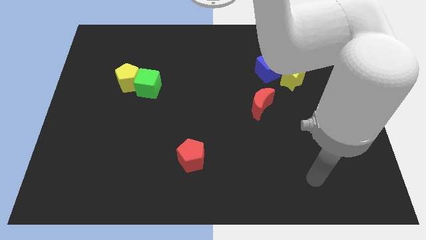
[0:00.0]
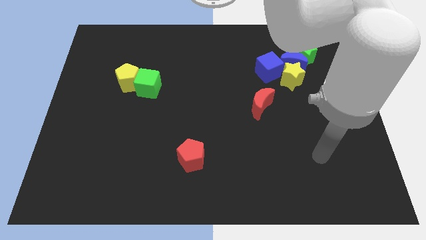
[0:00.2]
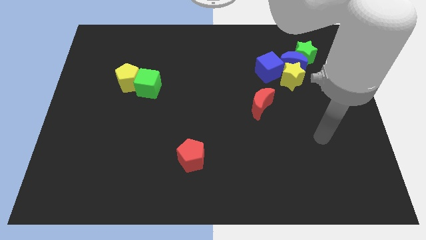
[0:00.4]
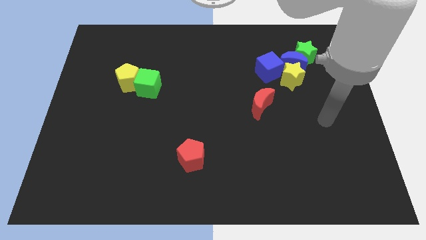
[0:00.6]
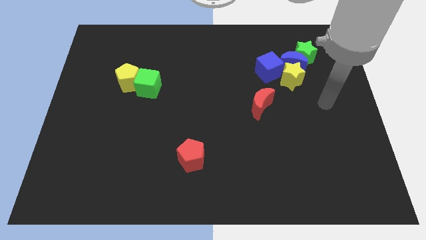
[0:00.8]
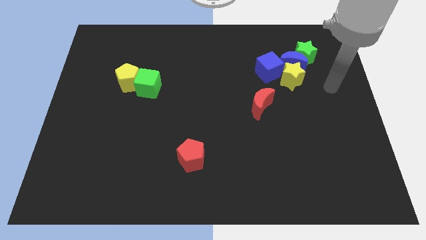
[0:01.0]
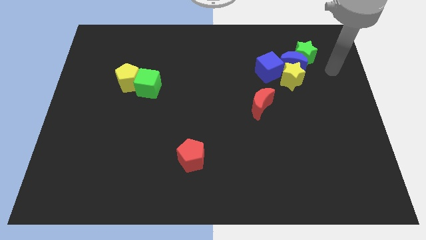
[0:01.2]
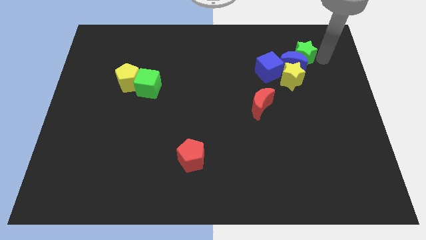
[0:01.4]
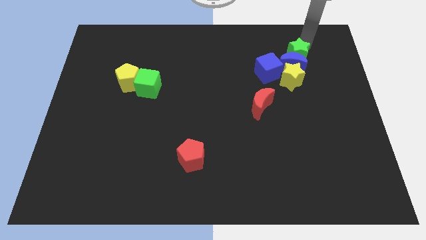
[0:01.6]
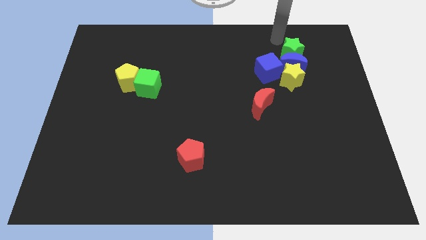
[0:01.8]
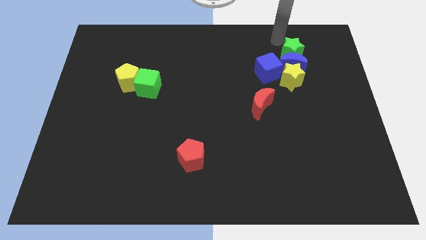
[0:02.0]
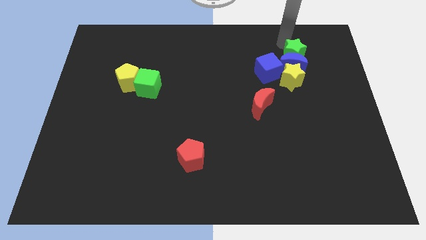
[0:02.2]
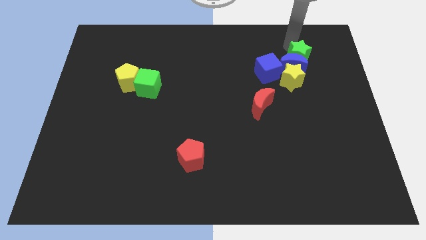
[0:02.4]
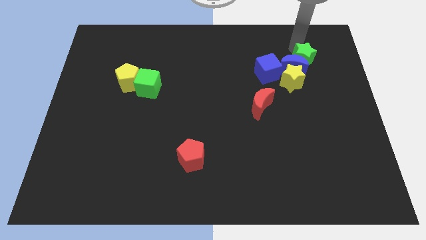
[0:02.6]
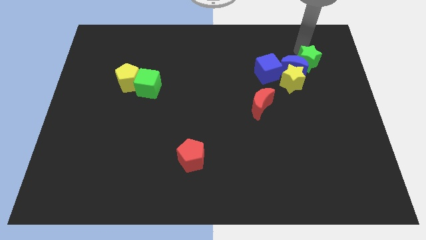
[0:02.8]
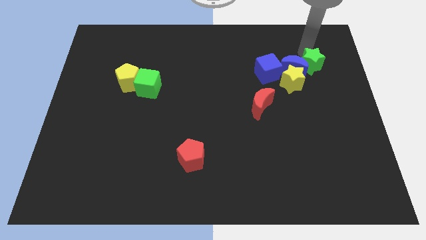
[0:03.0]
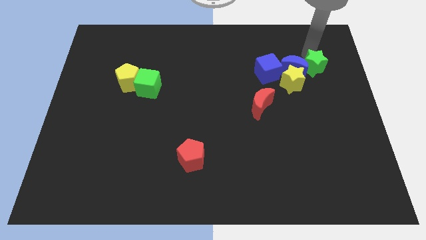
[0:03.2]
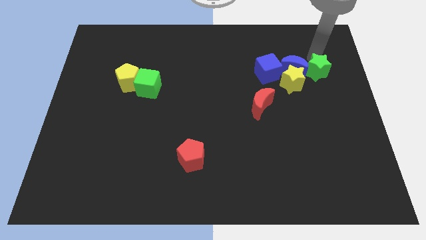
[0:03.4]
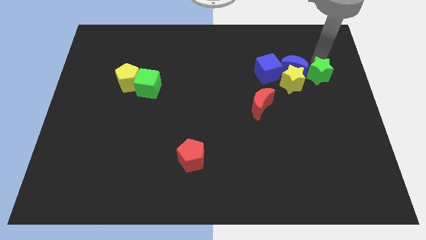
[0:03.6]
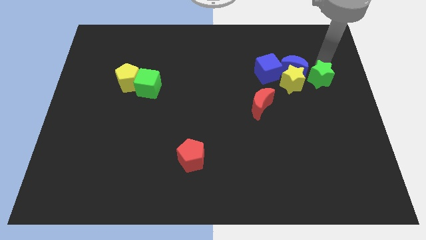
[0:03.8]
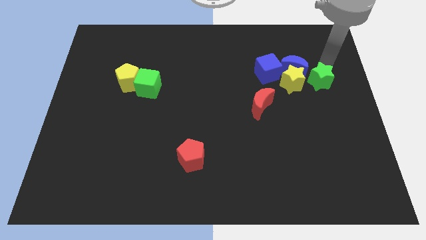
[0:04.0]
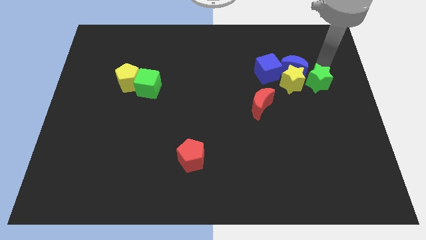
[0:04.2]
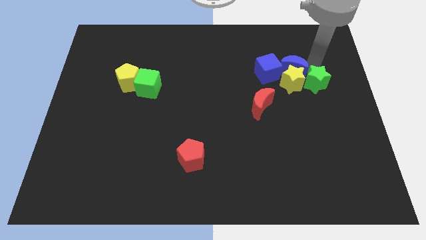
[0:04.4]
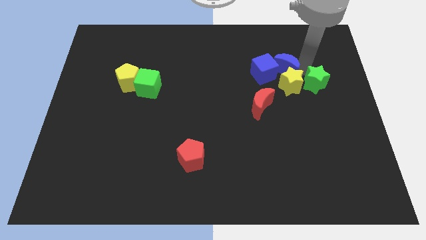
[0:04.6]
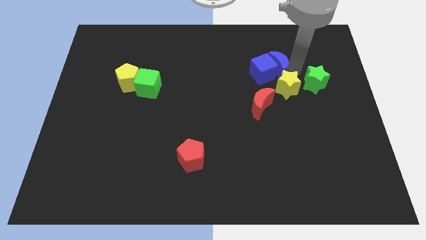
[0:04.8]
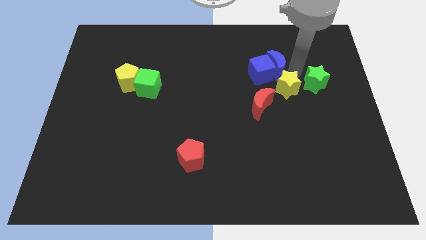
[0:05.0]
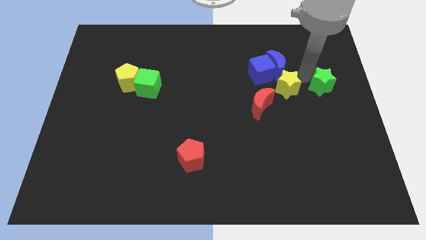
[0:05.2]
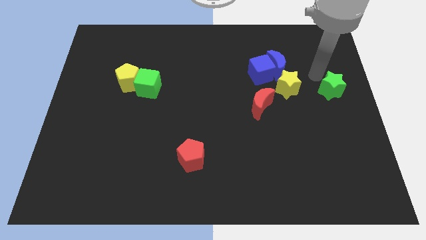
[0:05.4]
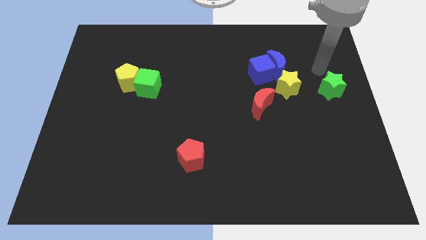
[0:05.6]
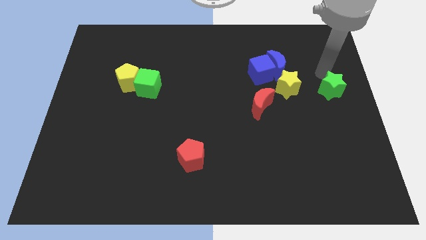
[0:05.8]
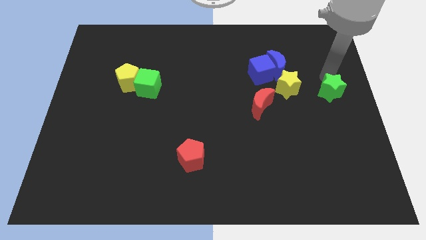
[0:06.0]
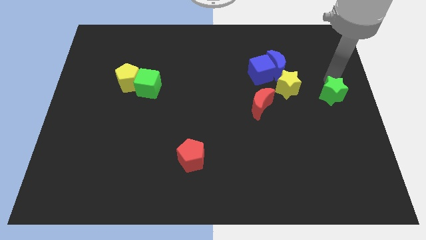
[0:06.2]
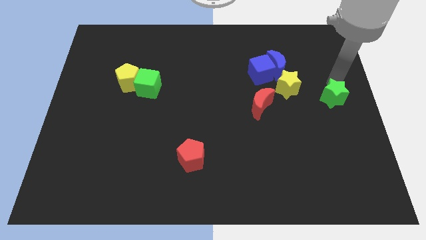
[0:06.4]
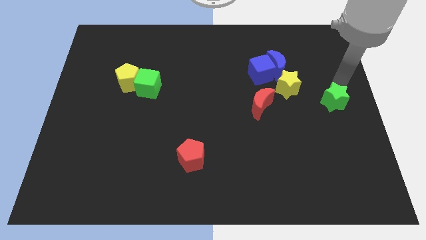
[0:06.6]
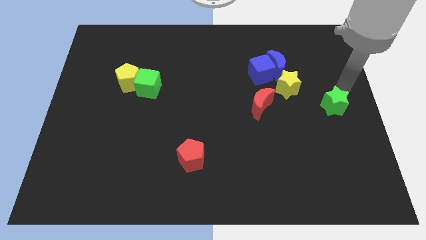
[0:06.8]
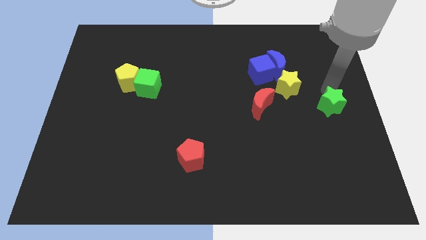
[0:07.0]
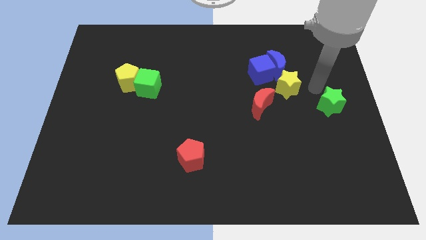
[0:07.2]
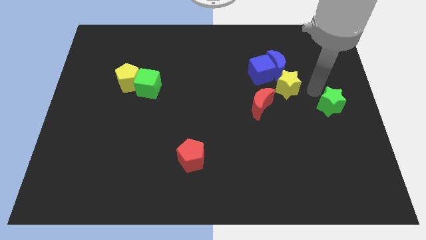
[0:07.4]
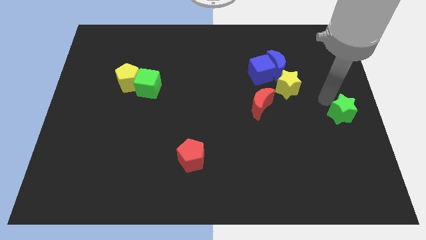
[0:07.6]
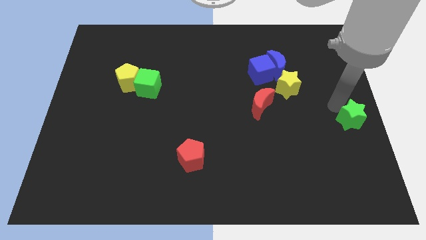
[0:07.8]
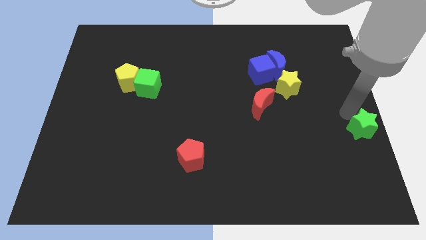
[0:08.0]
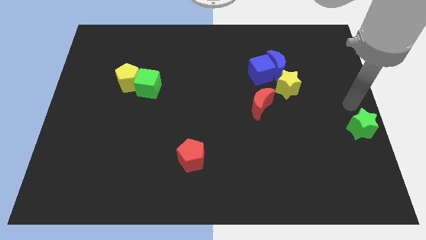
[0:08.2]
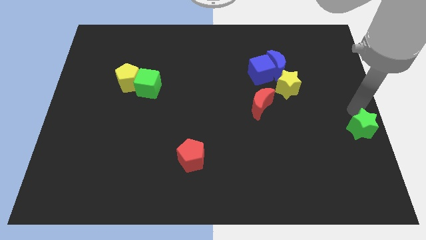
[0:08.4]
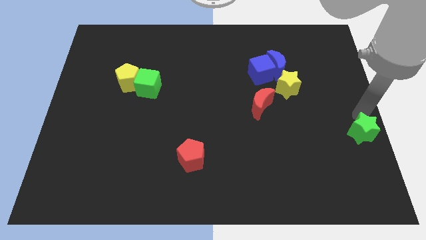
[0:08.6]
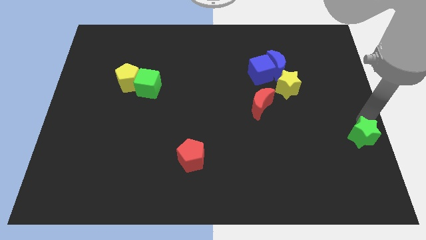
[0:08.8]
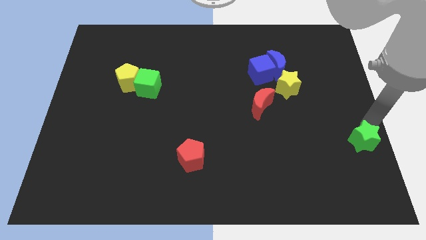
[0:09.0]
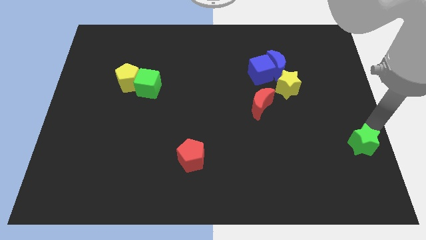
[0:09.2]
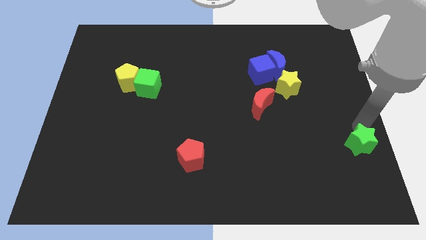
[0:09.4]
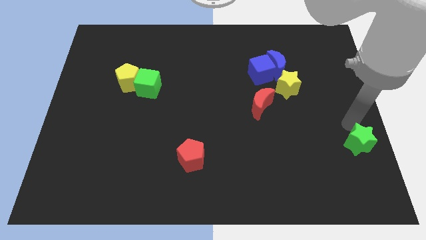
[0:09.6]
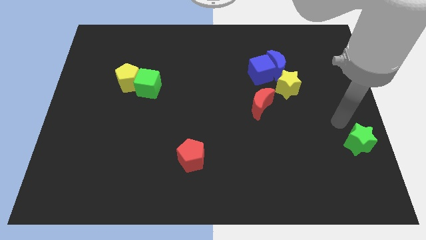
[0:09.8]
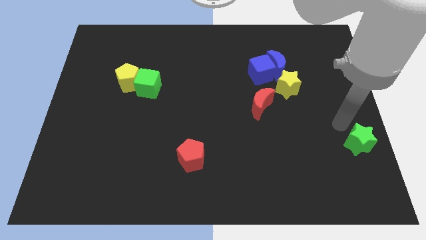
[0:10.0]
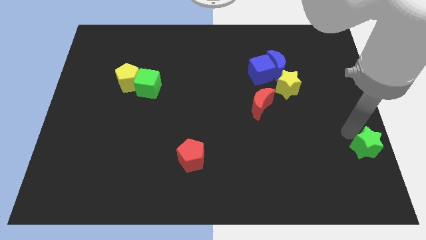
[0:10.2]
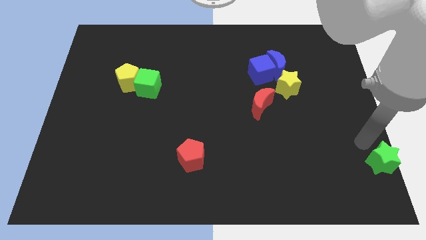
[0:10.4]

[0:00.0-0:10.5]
put the green star to the bottom right of the board

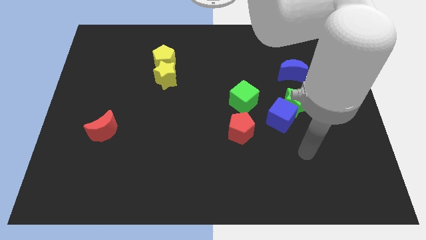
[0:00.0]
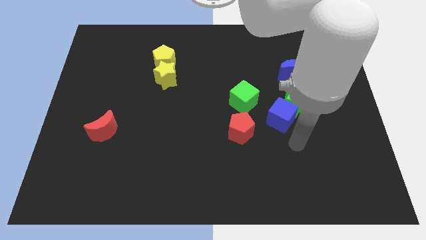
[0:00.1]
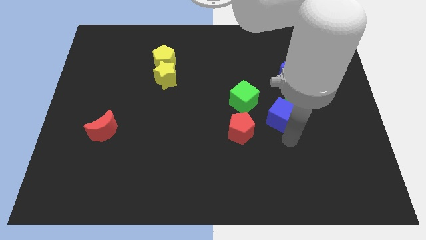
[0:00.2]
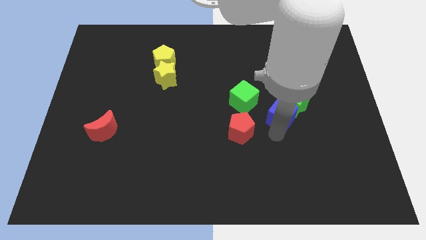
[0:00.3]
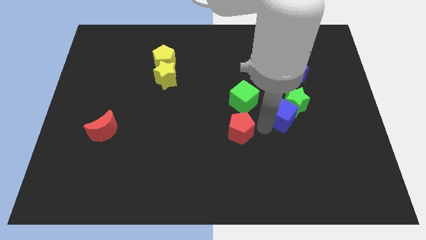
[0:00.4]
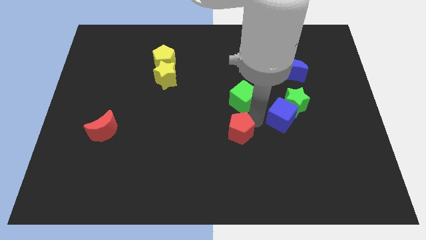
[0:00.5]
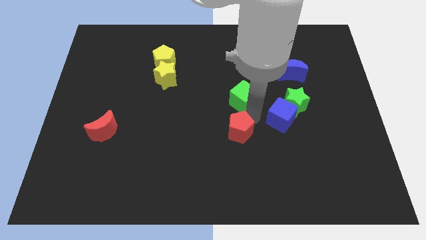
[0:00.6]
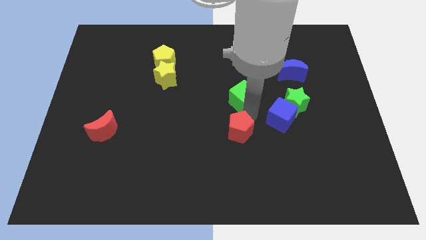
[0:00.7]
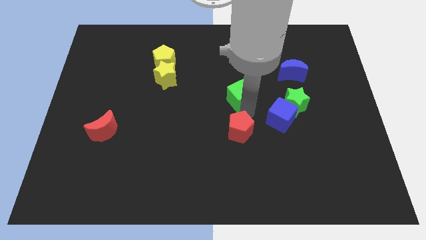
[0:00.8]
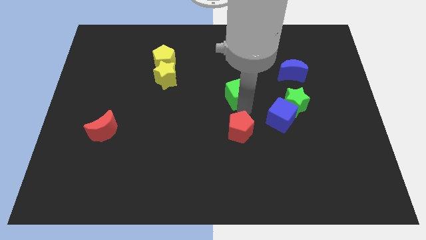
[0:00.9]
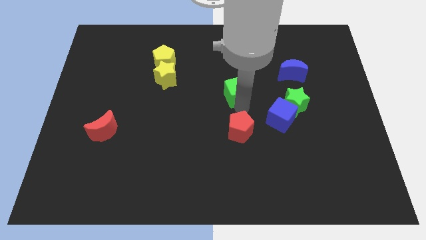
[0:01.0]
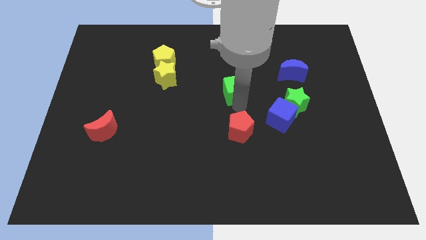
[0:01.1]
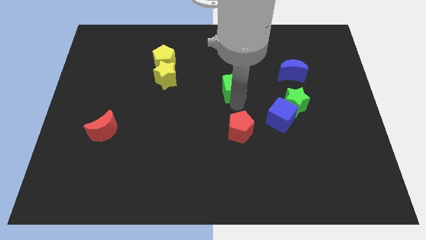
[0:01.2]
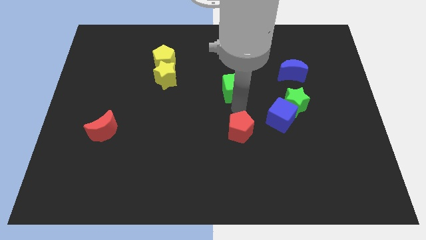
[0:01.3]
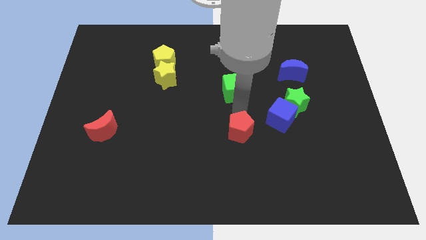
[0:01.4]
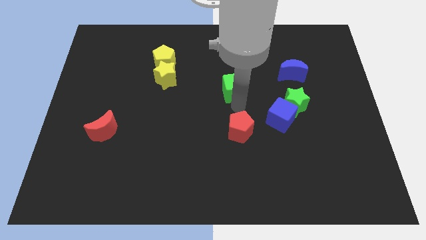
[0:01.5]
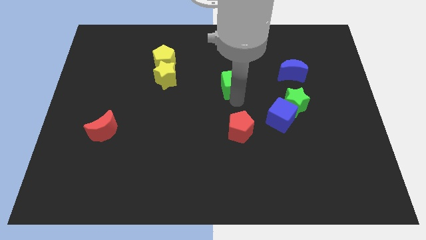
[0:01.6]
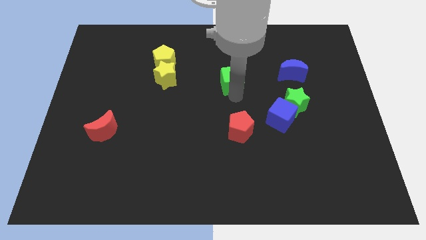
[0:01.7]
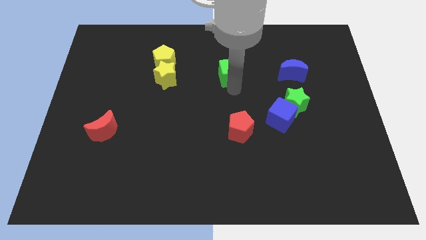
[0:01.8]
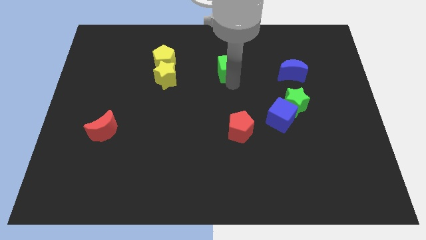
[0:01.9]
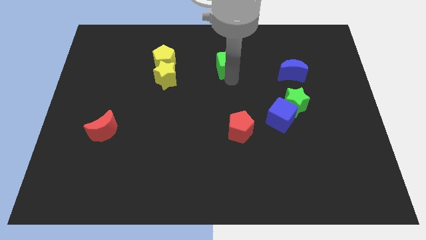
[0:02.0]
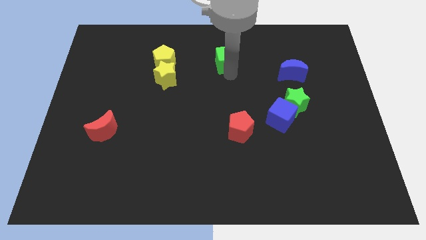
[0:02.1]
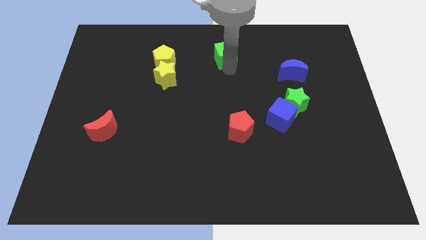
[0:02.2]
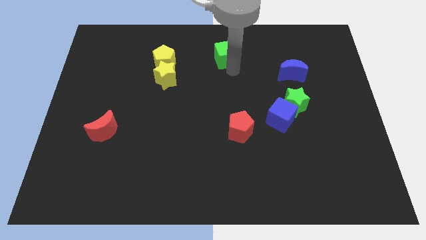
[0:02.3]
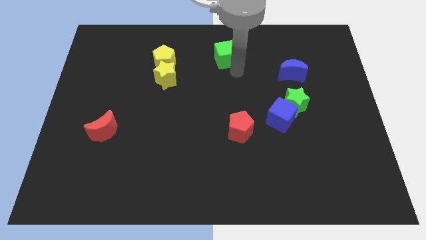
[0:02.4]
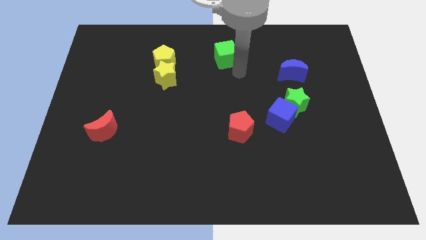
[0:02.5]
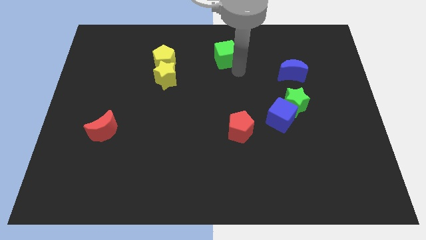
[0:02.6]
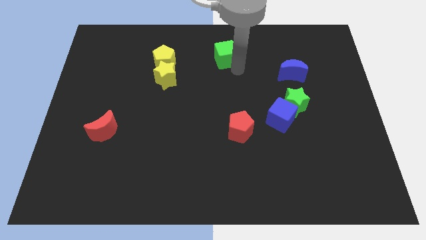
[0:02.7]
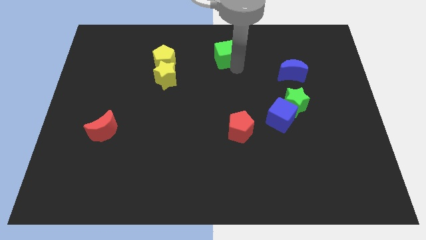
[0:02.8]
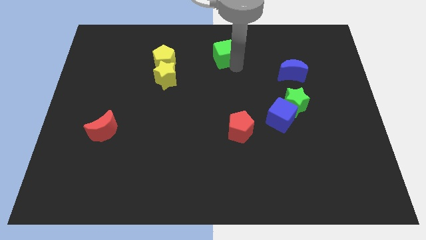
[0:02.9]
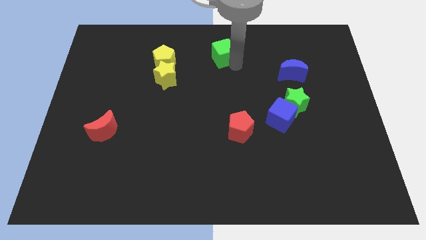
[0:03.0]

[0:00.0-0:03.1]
move the green cube to the towards your base
